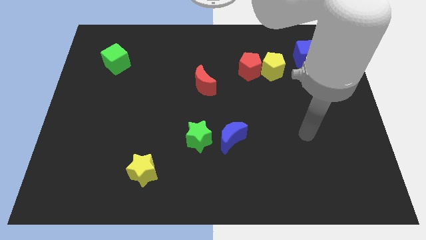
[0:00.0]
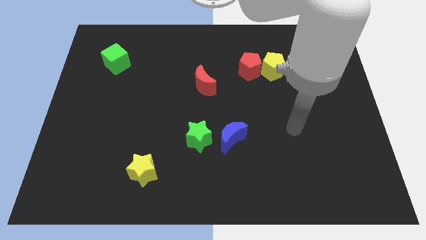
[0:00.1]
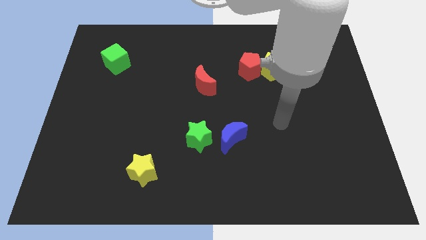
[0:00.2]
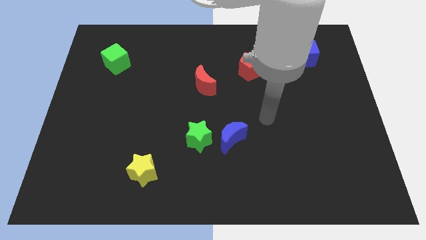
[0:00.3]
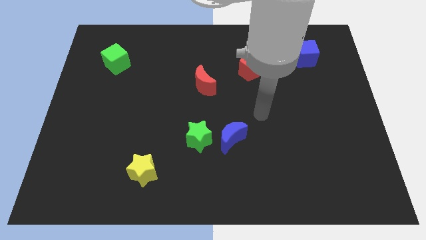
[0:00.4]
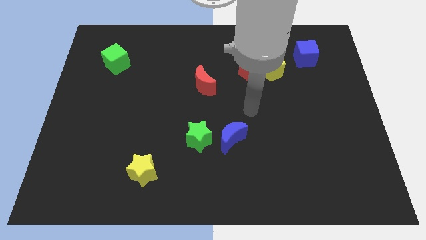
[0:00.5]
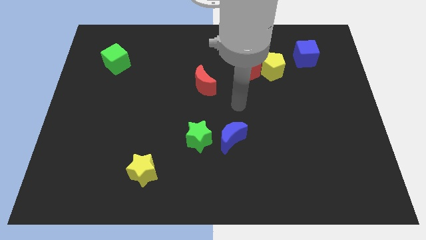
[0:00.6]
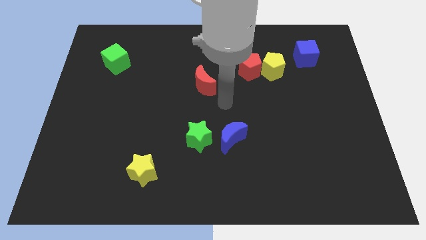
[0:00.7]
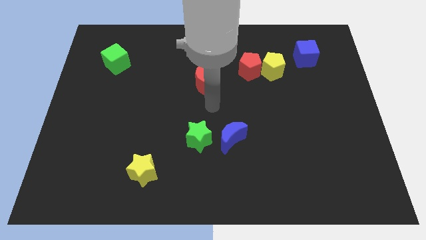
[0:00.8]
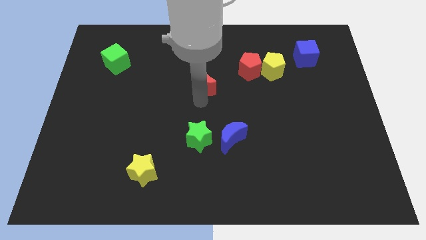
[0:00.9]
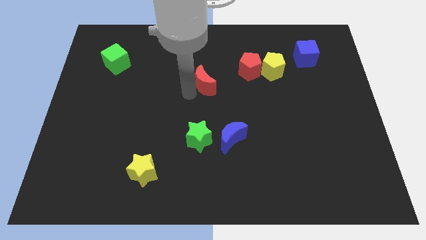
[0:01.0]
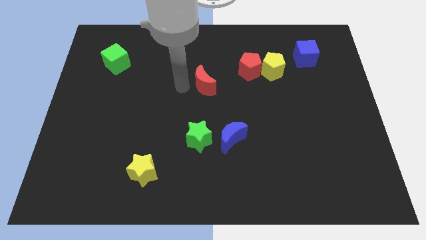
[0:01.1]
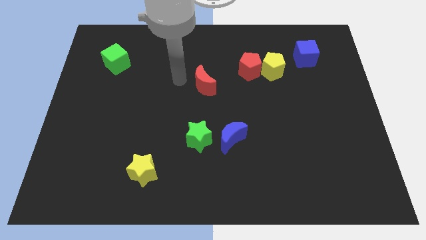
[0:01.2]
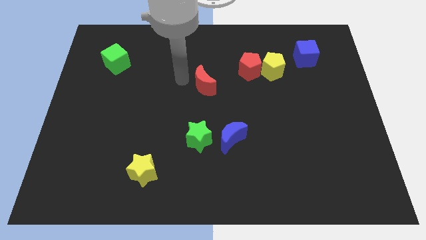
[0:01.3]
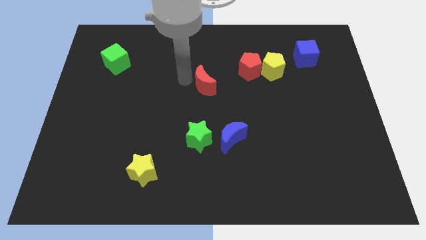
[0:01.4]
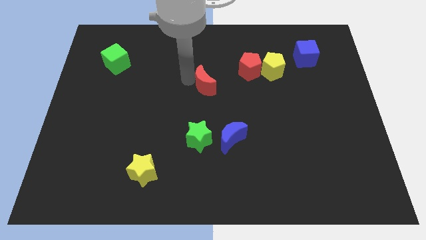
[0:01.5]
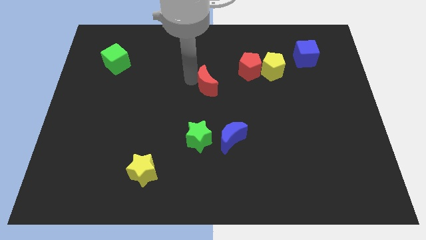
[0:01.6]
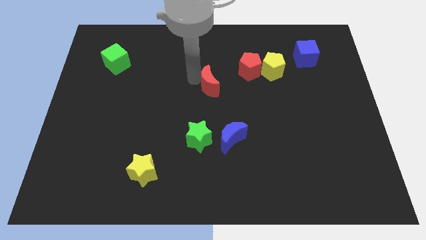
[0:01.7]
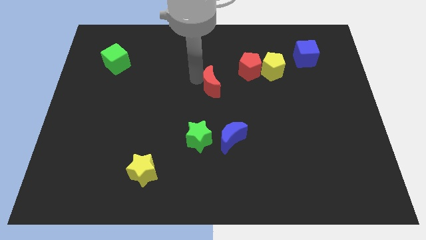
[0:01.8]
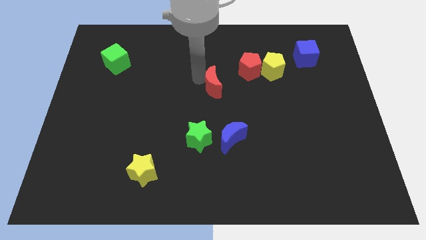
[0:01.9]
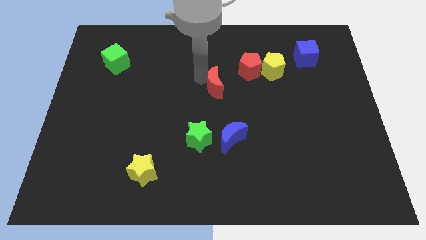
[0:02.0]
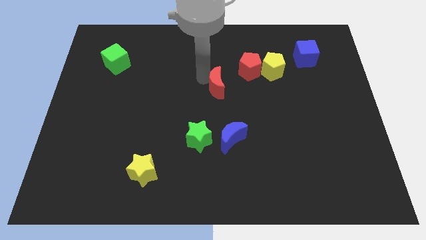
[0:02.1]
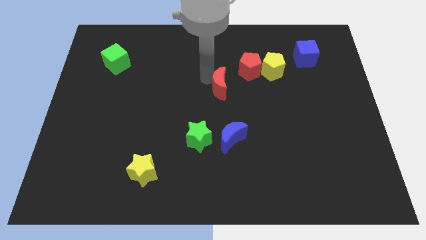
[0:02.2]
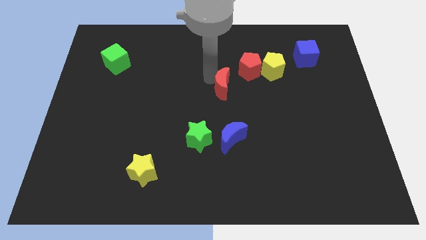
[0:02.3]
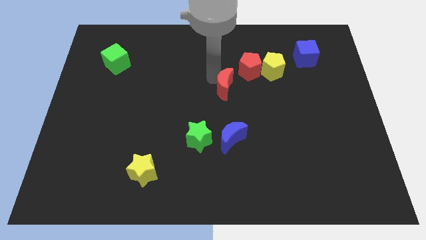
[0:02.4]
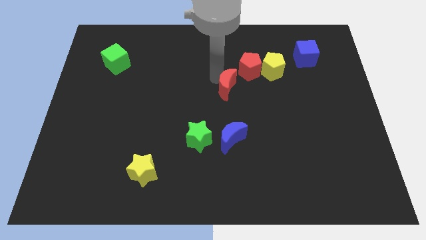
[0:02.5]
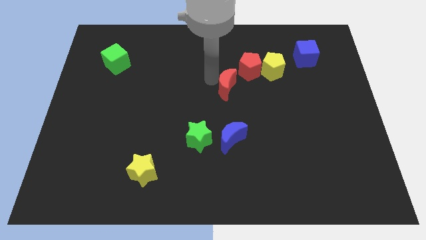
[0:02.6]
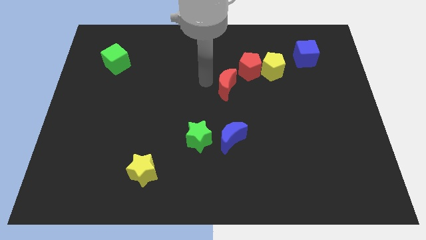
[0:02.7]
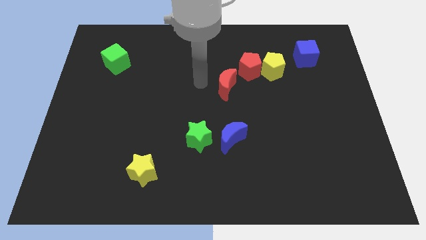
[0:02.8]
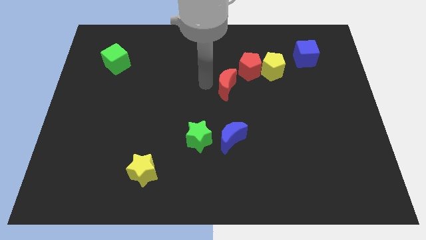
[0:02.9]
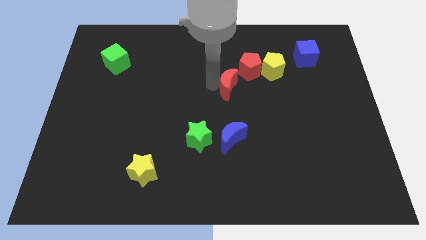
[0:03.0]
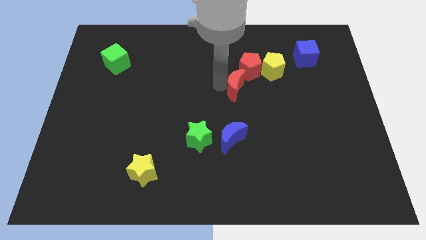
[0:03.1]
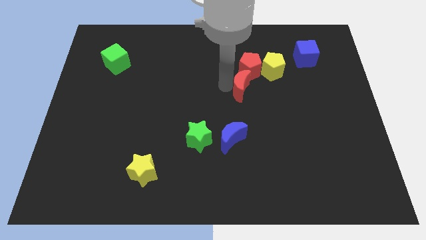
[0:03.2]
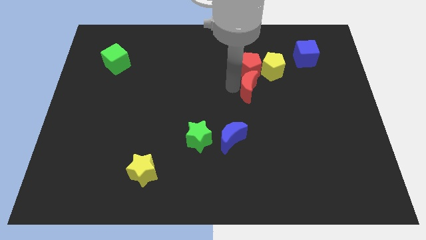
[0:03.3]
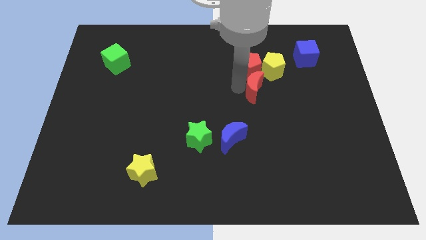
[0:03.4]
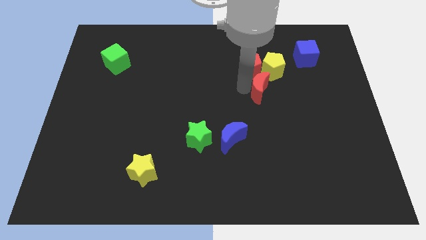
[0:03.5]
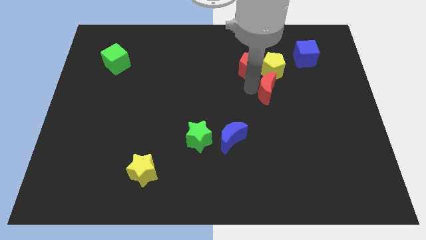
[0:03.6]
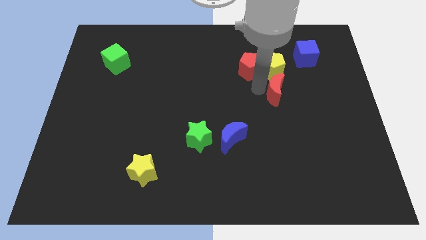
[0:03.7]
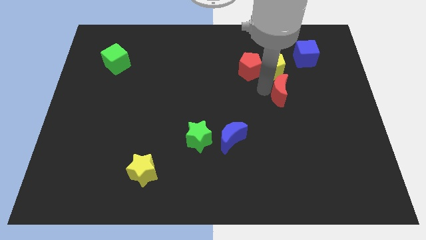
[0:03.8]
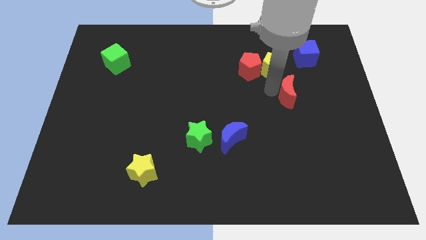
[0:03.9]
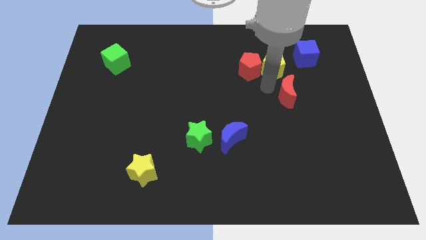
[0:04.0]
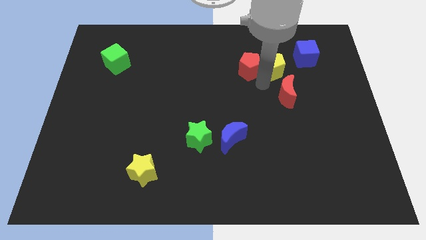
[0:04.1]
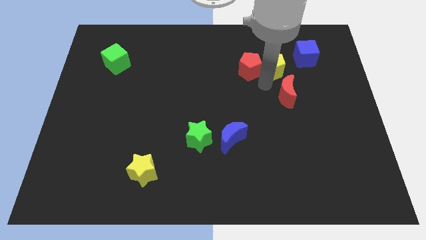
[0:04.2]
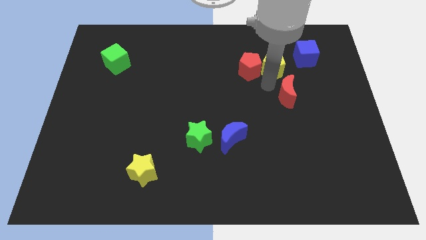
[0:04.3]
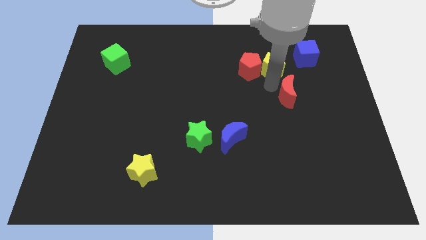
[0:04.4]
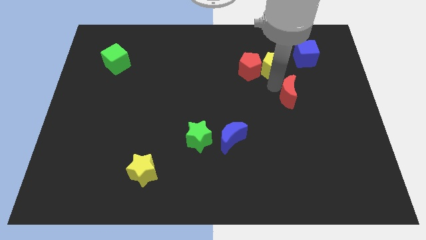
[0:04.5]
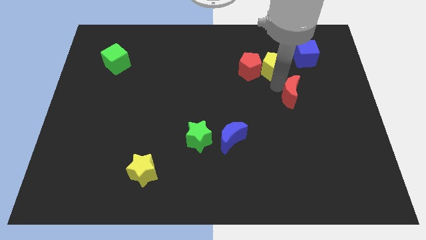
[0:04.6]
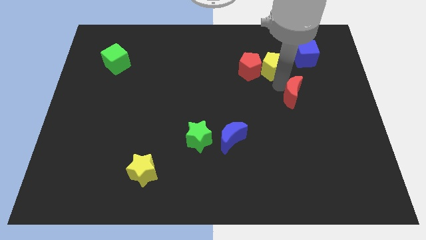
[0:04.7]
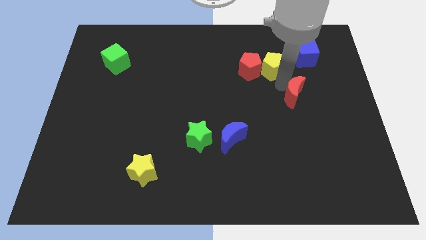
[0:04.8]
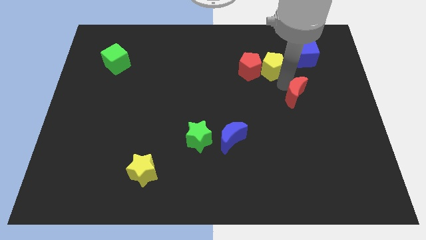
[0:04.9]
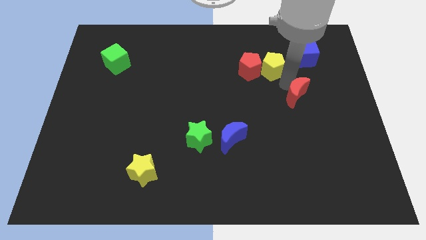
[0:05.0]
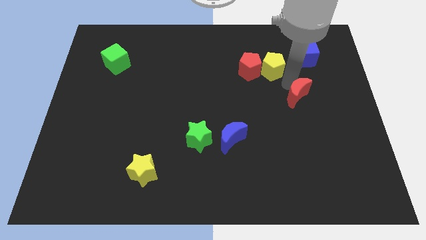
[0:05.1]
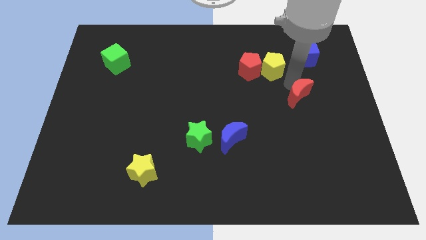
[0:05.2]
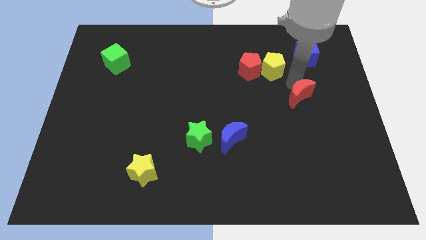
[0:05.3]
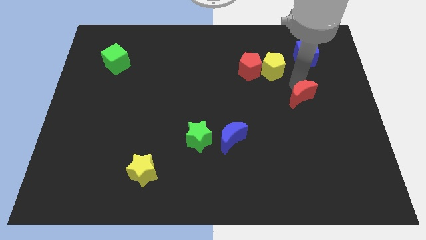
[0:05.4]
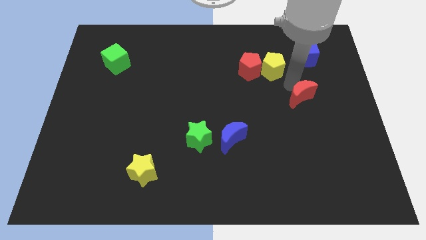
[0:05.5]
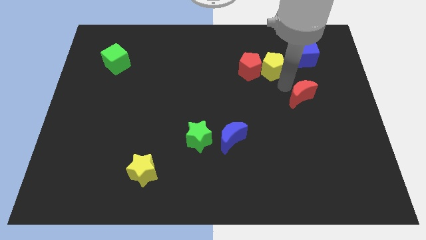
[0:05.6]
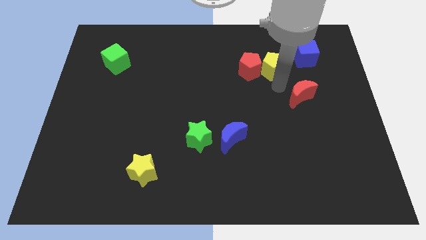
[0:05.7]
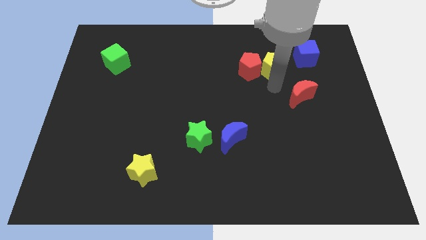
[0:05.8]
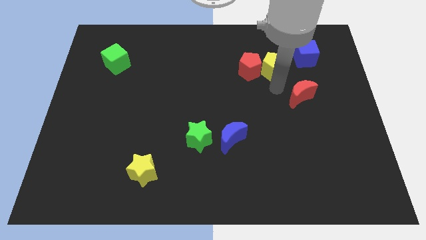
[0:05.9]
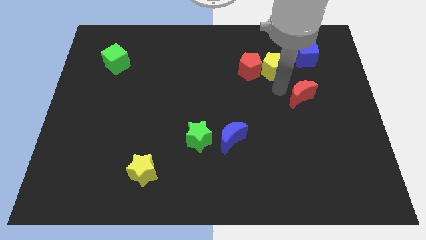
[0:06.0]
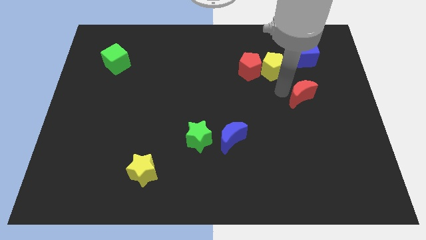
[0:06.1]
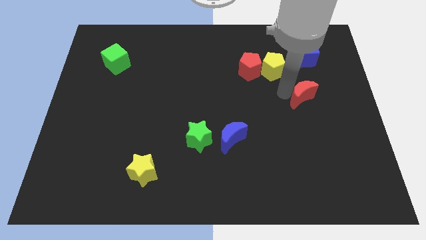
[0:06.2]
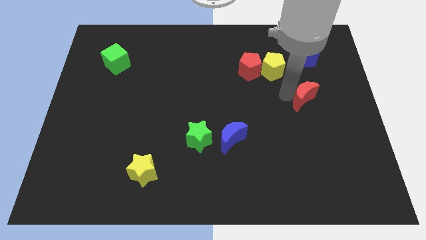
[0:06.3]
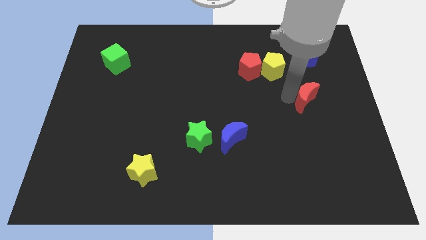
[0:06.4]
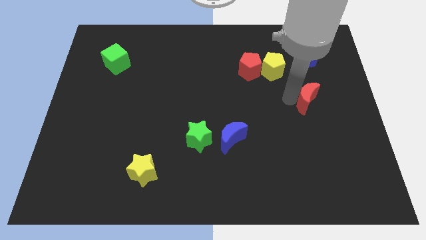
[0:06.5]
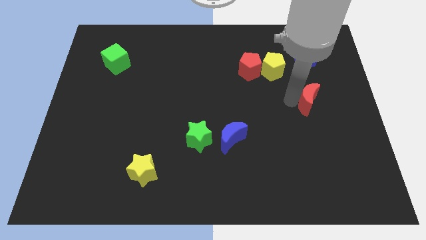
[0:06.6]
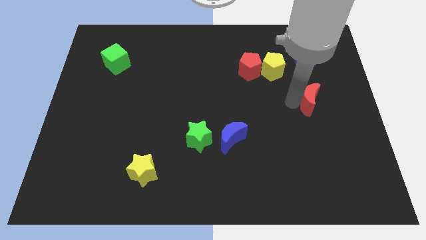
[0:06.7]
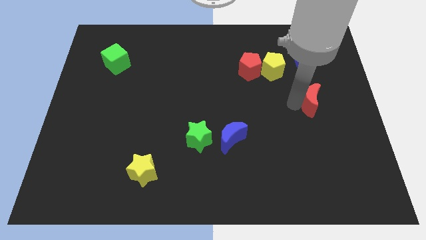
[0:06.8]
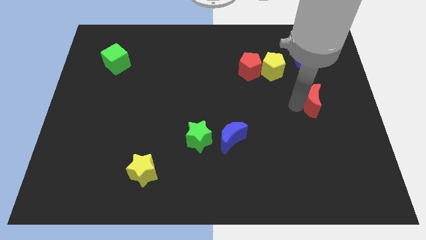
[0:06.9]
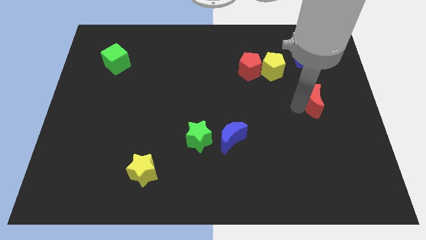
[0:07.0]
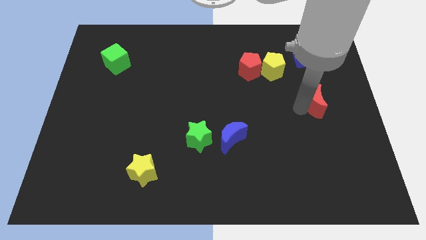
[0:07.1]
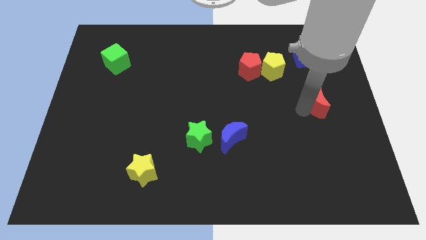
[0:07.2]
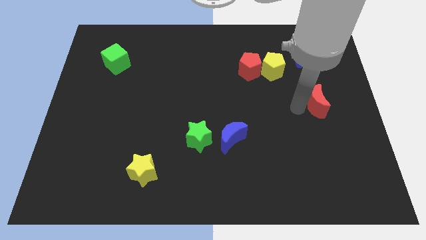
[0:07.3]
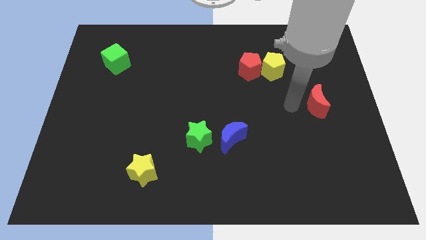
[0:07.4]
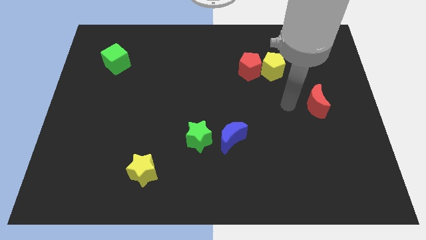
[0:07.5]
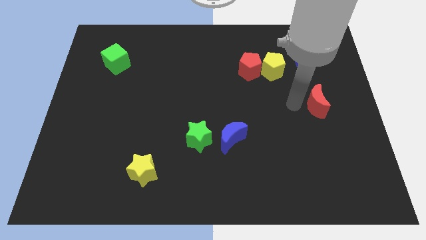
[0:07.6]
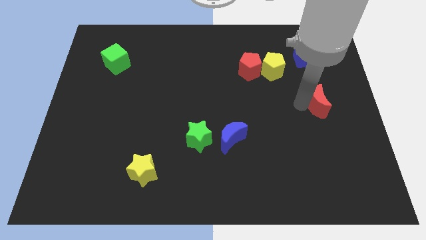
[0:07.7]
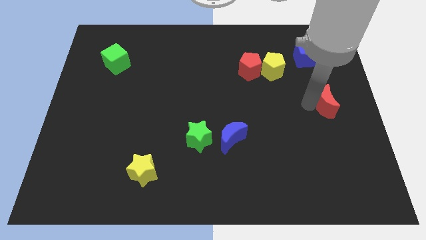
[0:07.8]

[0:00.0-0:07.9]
put the red moon to the right side of the board
